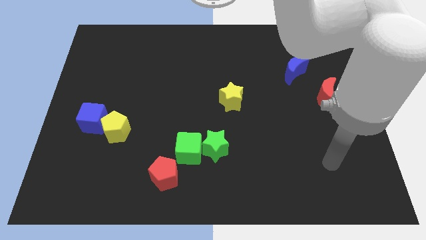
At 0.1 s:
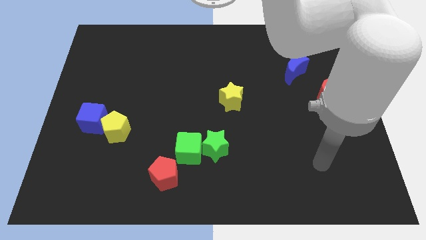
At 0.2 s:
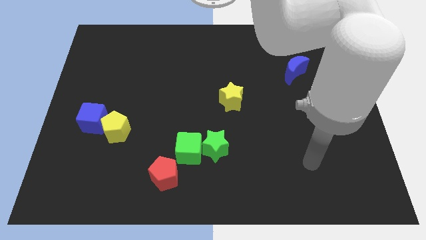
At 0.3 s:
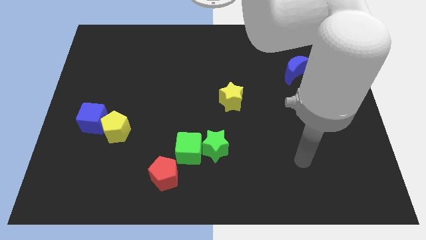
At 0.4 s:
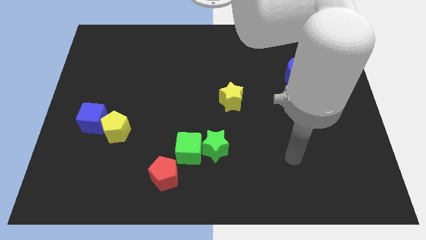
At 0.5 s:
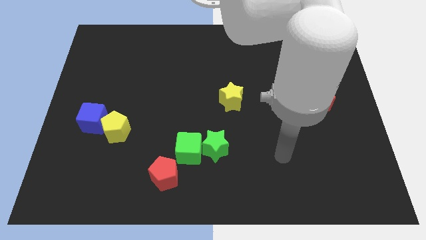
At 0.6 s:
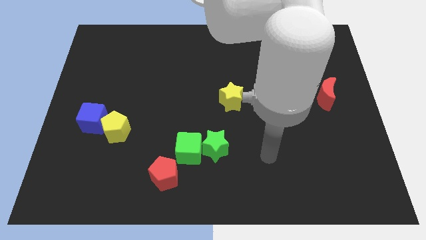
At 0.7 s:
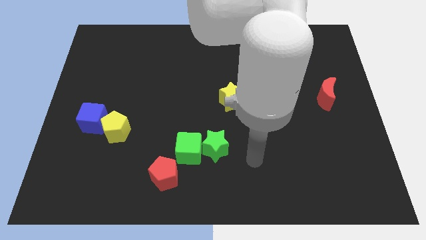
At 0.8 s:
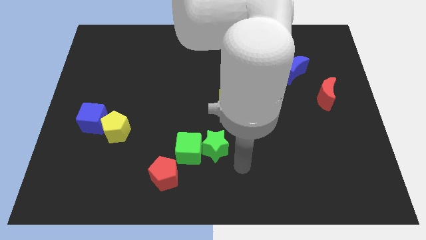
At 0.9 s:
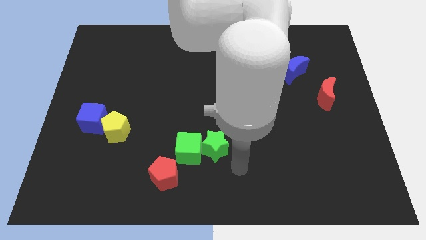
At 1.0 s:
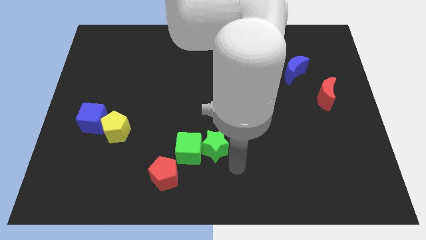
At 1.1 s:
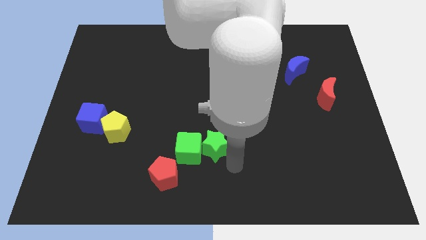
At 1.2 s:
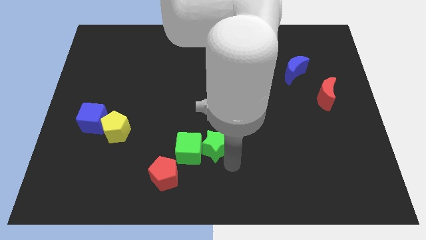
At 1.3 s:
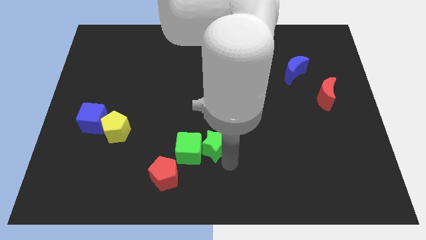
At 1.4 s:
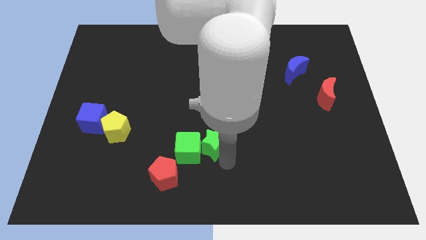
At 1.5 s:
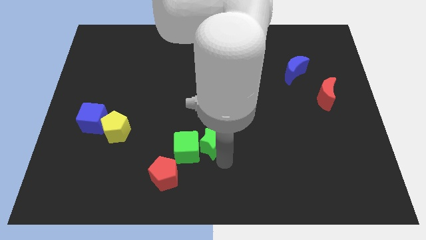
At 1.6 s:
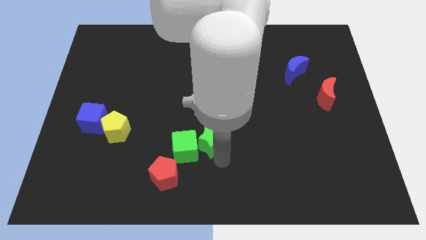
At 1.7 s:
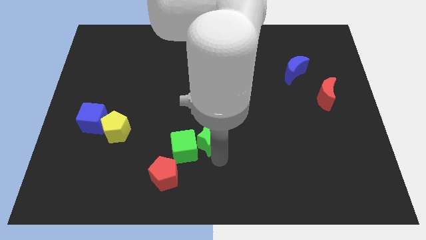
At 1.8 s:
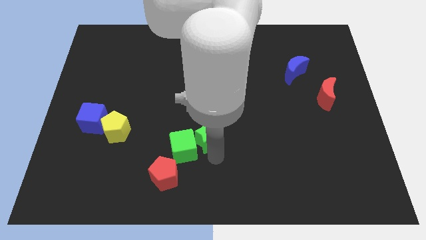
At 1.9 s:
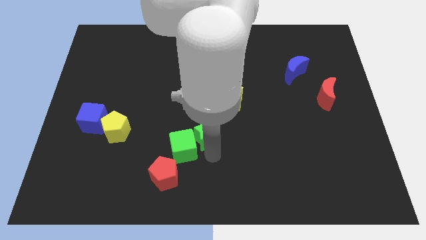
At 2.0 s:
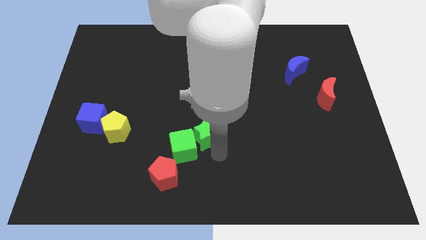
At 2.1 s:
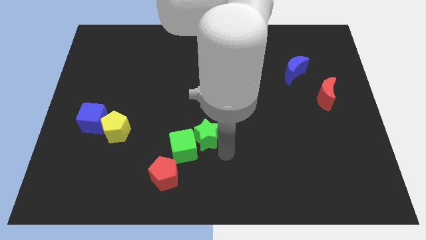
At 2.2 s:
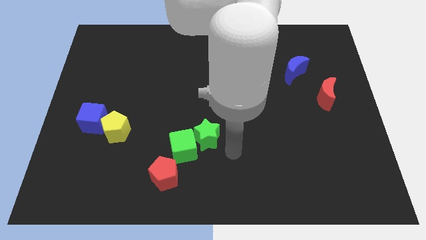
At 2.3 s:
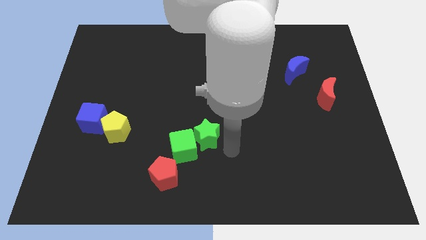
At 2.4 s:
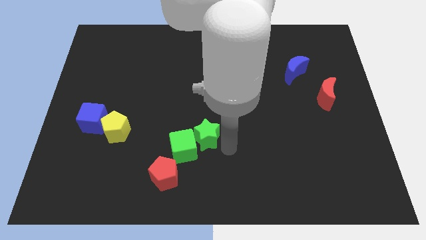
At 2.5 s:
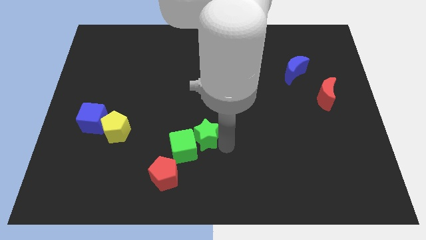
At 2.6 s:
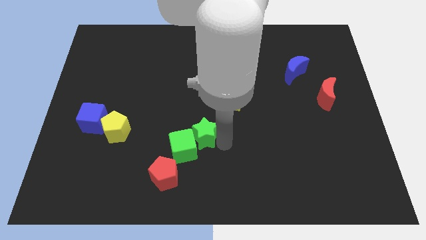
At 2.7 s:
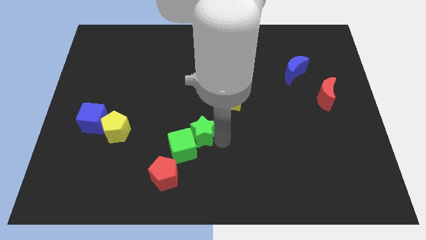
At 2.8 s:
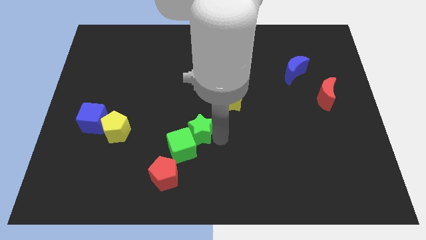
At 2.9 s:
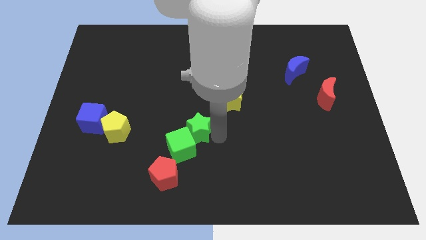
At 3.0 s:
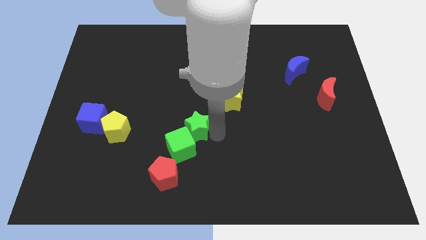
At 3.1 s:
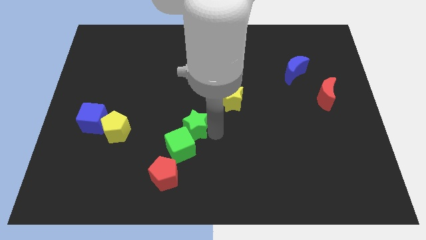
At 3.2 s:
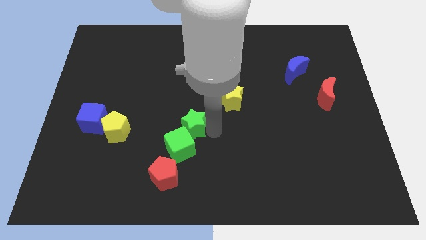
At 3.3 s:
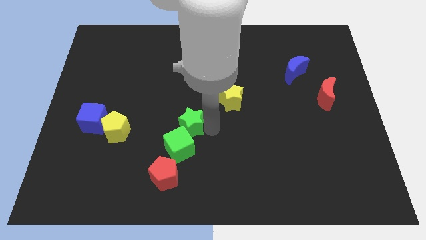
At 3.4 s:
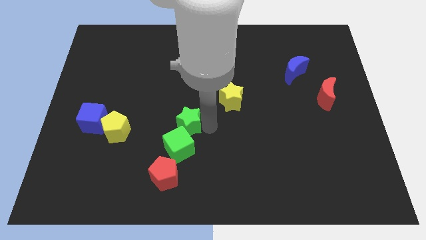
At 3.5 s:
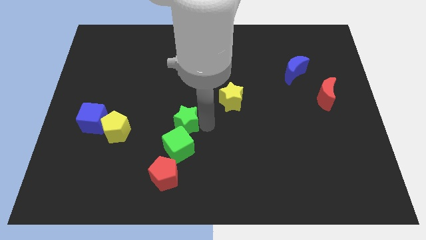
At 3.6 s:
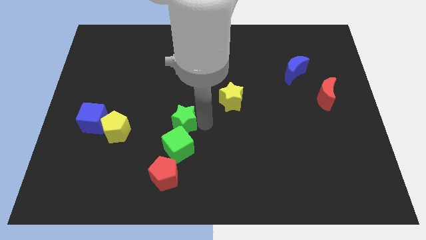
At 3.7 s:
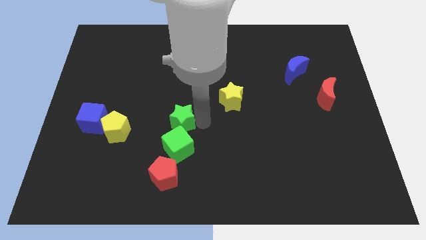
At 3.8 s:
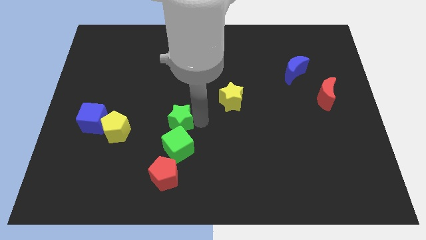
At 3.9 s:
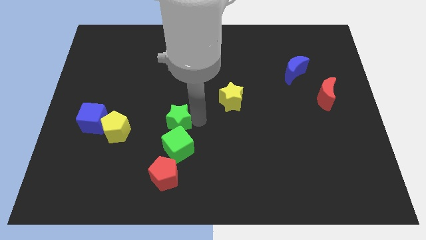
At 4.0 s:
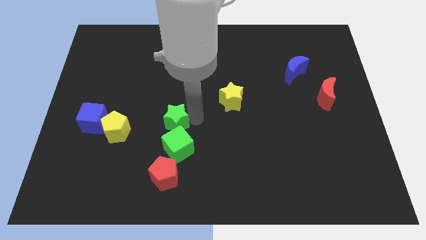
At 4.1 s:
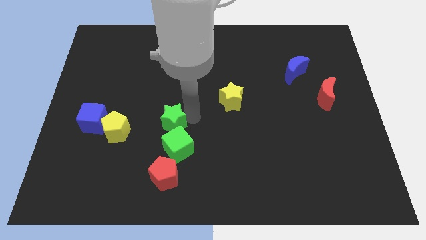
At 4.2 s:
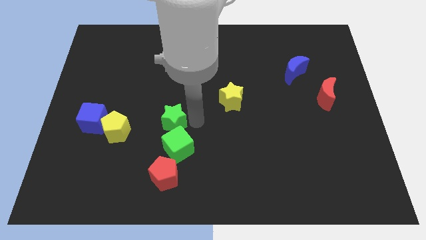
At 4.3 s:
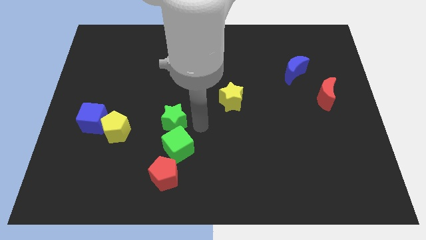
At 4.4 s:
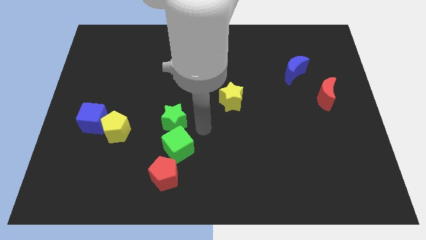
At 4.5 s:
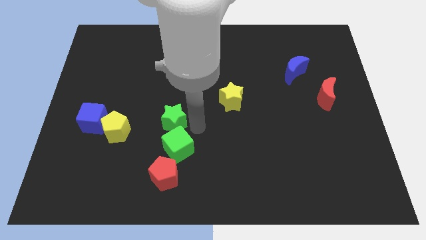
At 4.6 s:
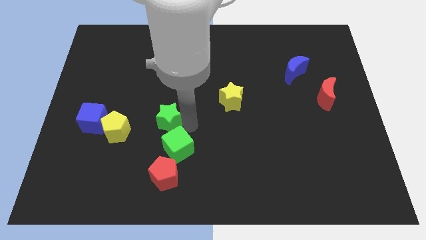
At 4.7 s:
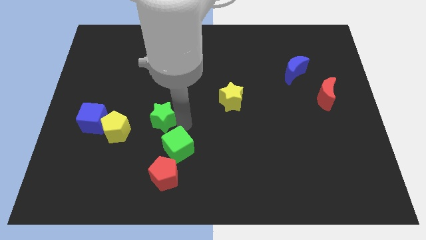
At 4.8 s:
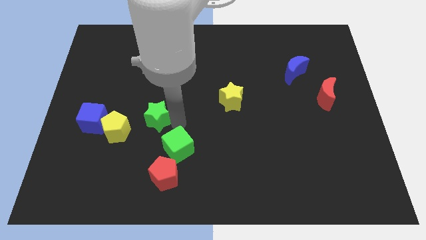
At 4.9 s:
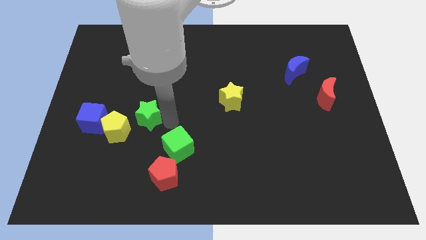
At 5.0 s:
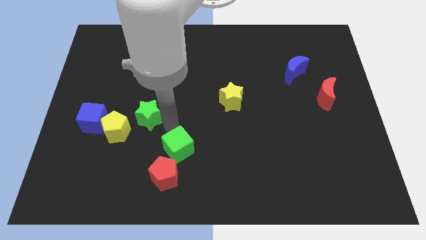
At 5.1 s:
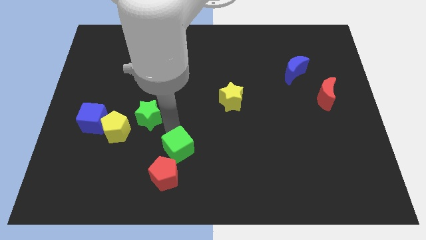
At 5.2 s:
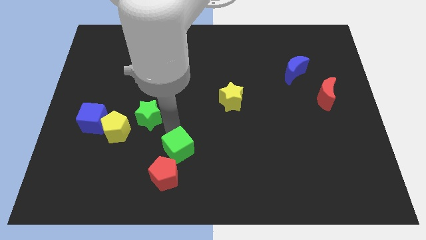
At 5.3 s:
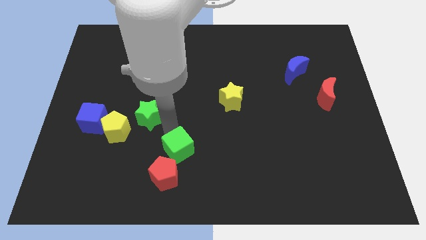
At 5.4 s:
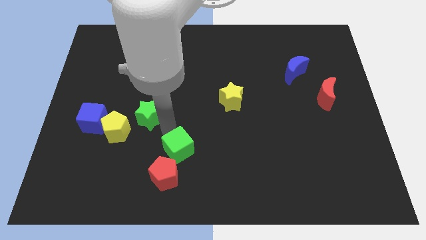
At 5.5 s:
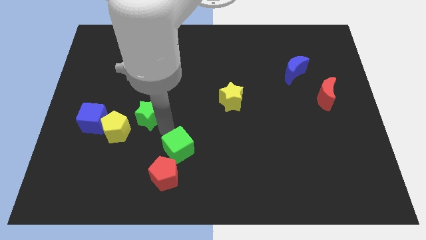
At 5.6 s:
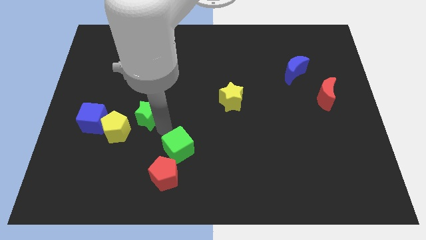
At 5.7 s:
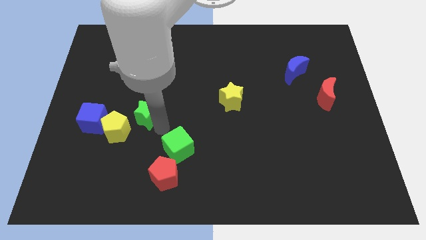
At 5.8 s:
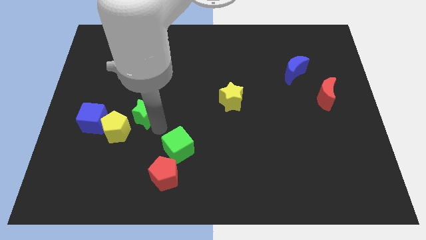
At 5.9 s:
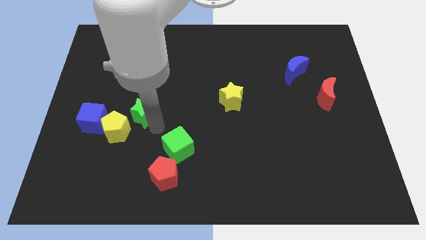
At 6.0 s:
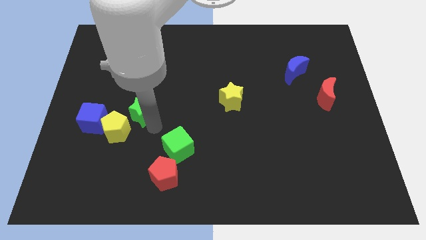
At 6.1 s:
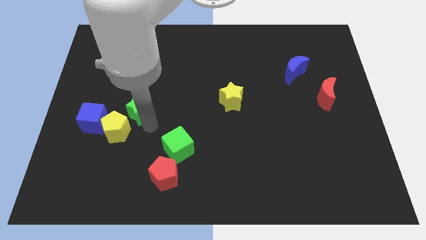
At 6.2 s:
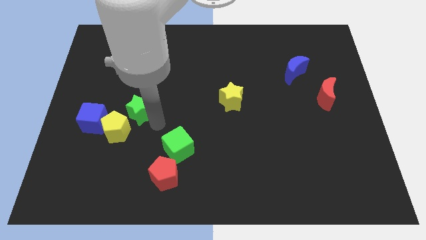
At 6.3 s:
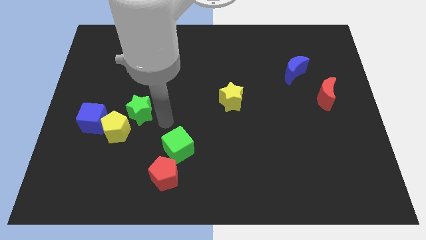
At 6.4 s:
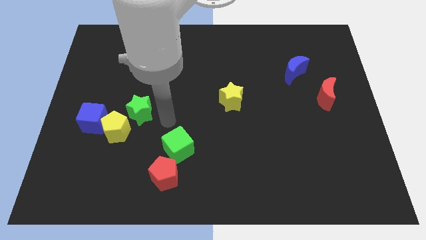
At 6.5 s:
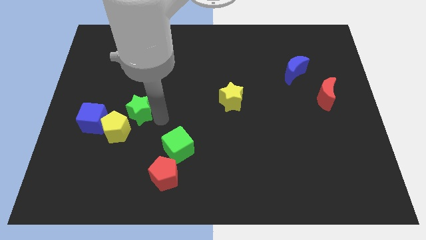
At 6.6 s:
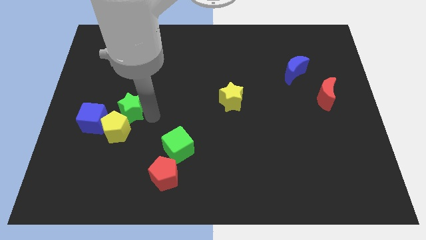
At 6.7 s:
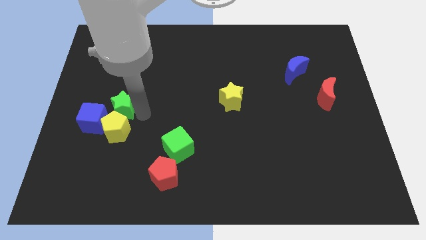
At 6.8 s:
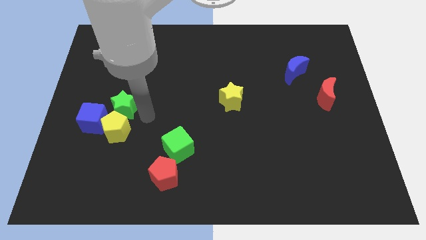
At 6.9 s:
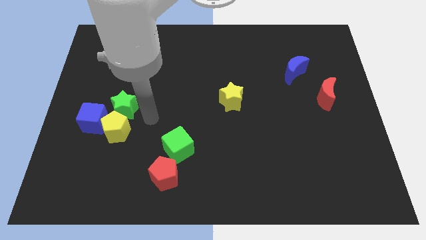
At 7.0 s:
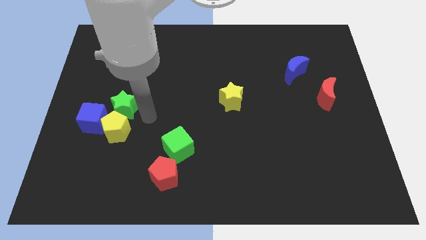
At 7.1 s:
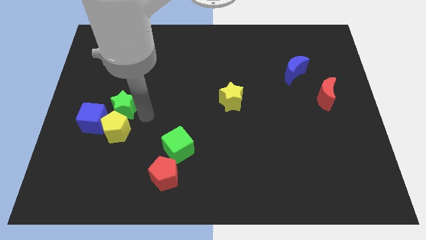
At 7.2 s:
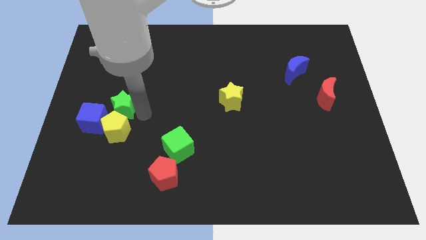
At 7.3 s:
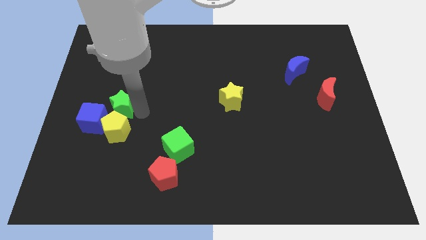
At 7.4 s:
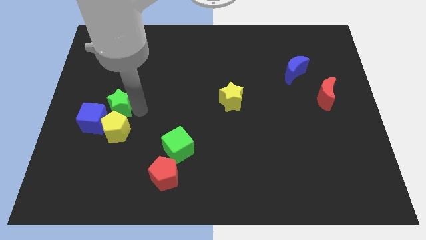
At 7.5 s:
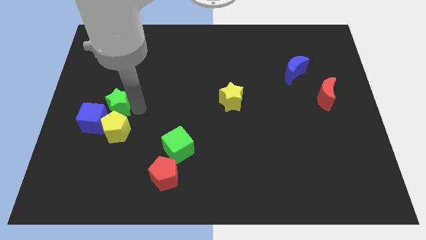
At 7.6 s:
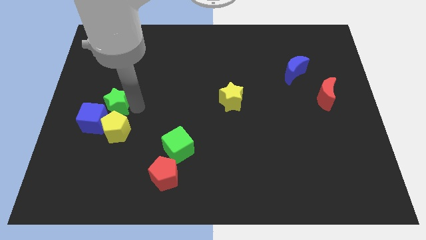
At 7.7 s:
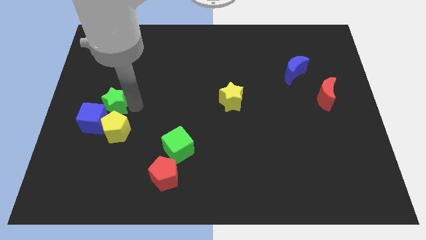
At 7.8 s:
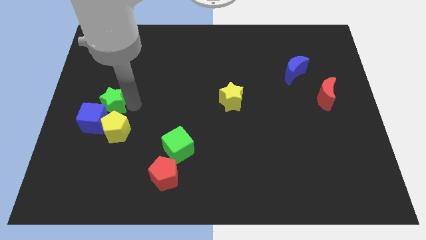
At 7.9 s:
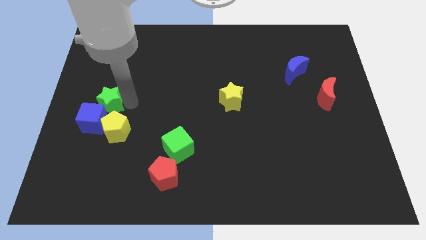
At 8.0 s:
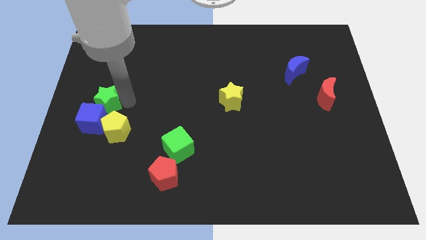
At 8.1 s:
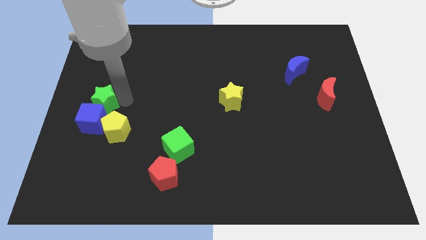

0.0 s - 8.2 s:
put the green star to the center left
